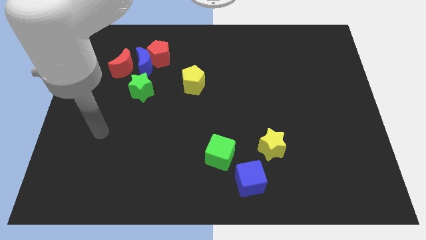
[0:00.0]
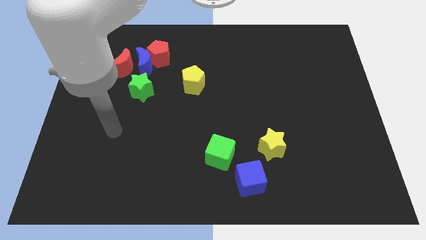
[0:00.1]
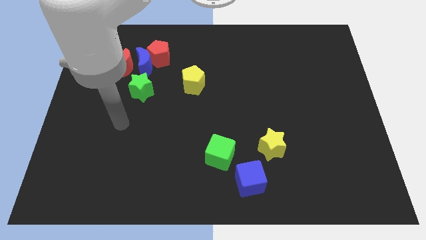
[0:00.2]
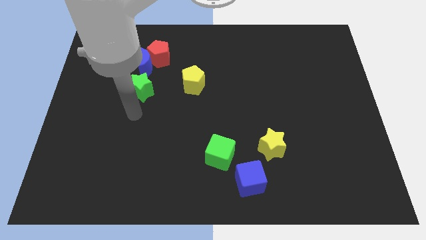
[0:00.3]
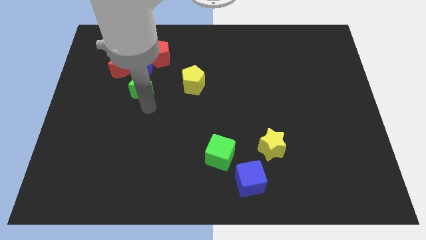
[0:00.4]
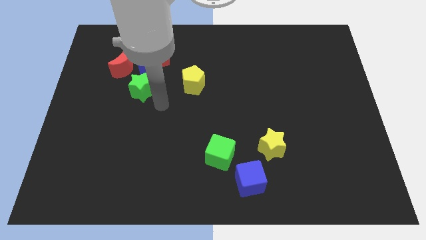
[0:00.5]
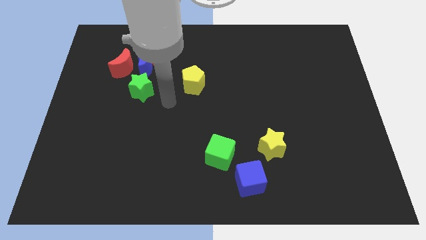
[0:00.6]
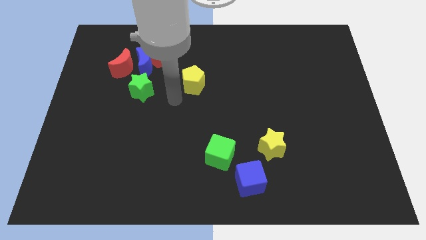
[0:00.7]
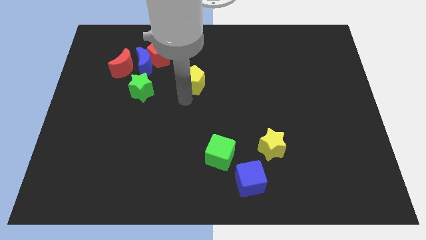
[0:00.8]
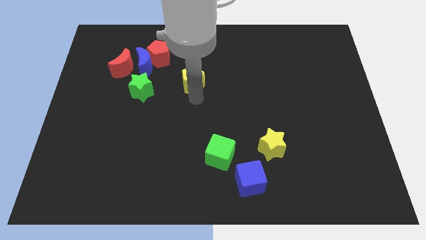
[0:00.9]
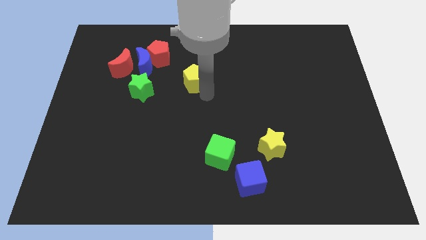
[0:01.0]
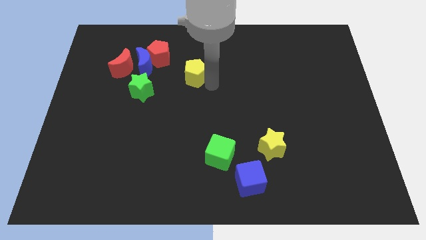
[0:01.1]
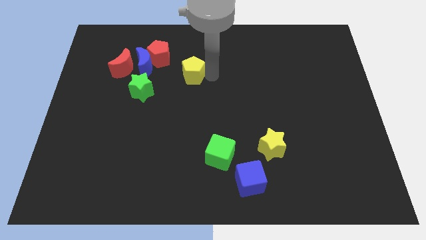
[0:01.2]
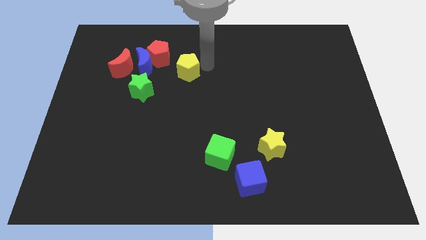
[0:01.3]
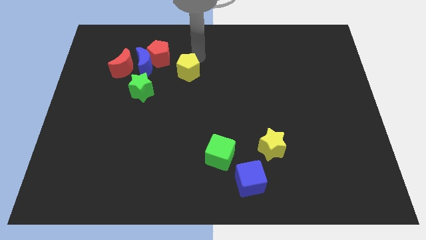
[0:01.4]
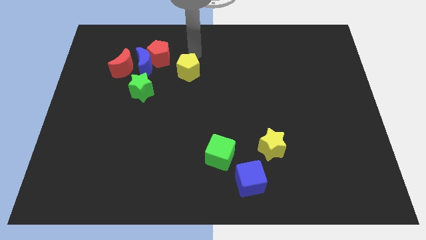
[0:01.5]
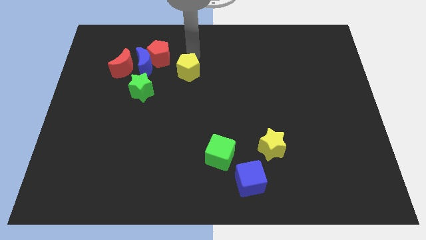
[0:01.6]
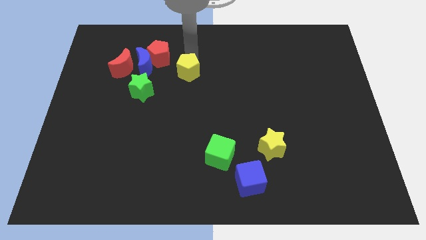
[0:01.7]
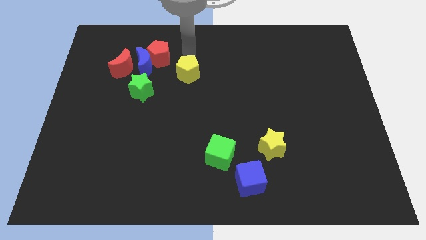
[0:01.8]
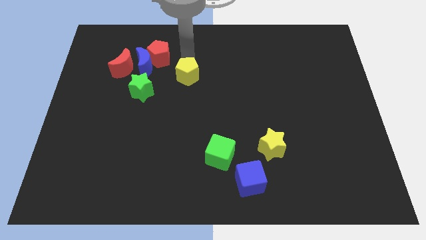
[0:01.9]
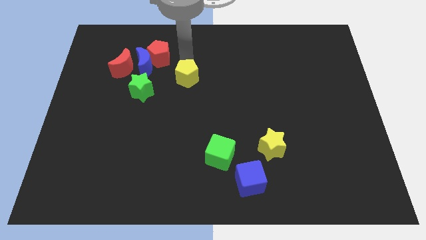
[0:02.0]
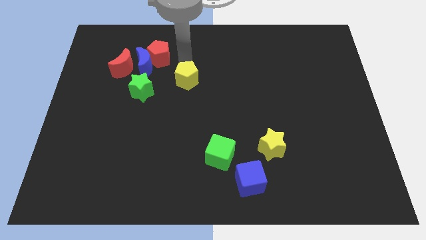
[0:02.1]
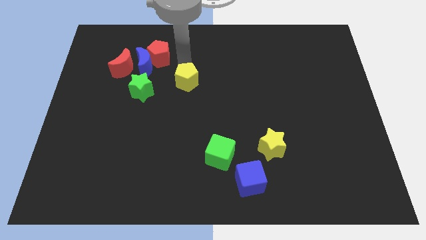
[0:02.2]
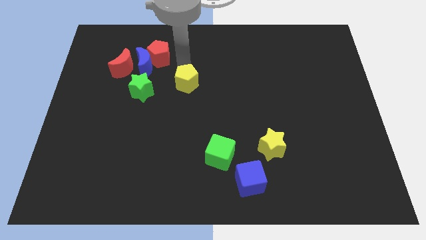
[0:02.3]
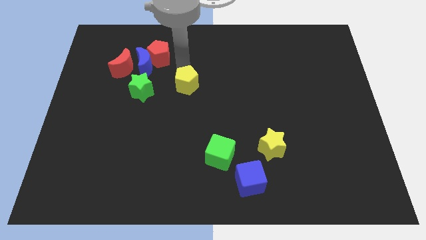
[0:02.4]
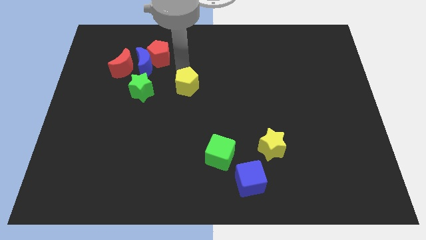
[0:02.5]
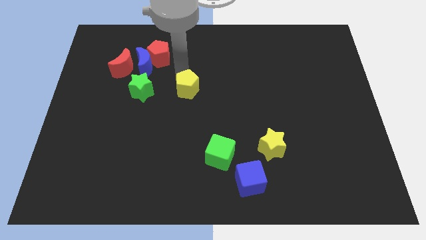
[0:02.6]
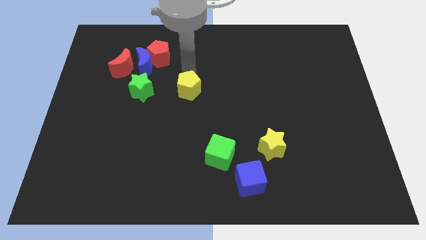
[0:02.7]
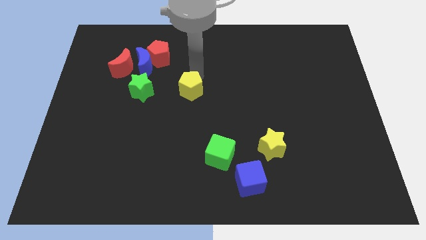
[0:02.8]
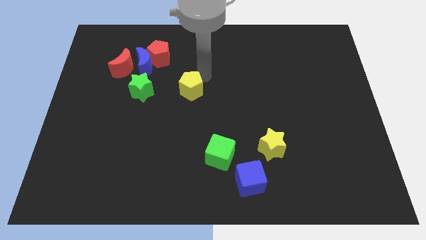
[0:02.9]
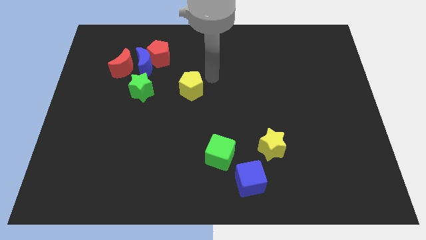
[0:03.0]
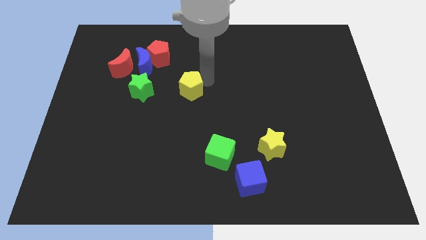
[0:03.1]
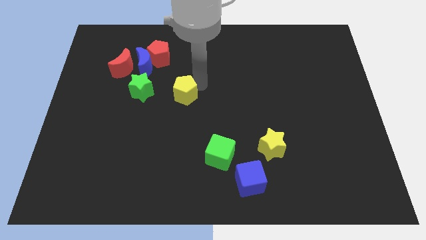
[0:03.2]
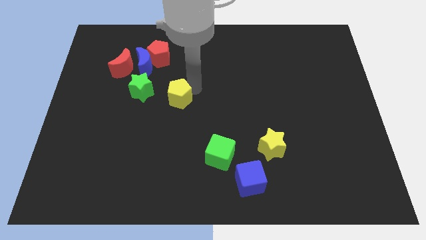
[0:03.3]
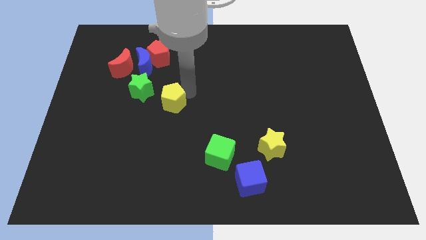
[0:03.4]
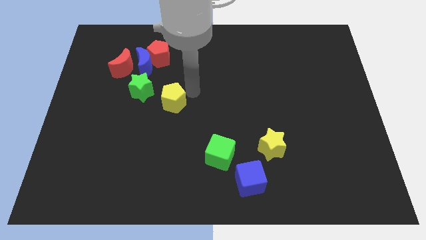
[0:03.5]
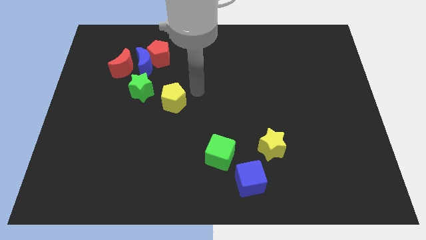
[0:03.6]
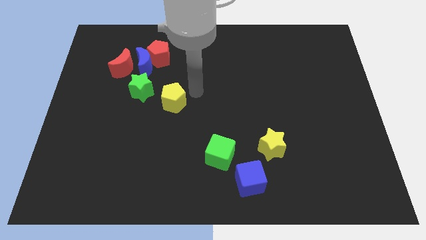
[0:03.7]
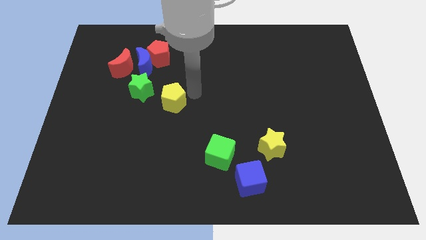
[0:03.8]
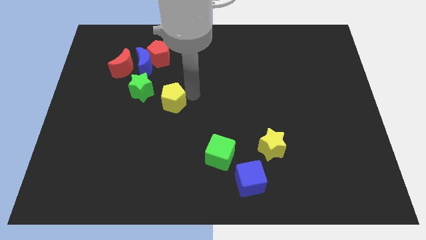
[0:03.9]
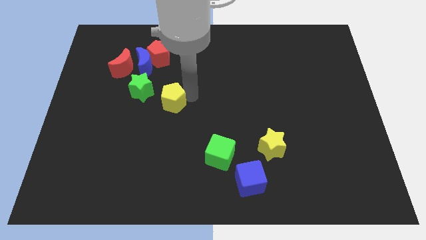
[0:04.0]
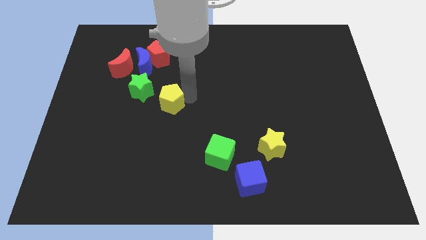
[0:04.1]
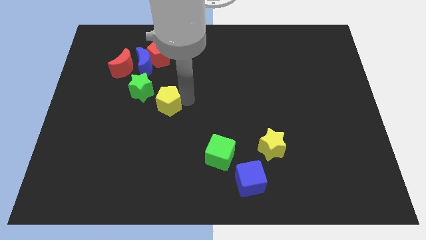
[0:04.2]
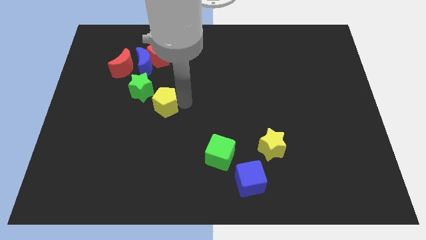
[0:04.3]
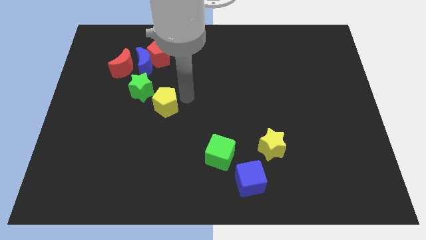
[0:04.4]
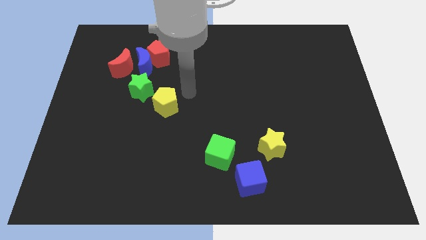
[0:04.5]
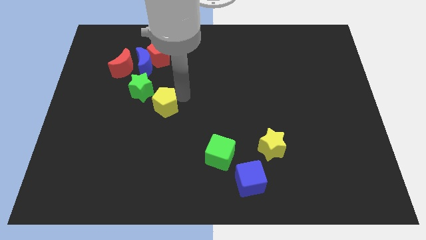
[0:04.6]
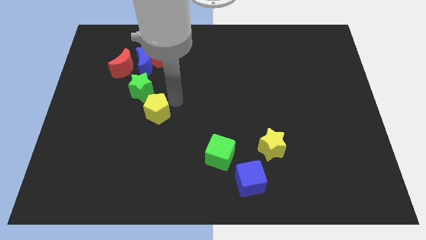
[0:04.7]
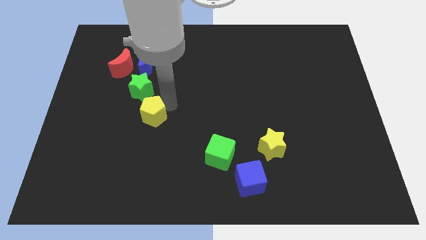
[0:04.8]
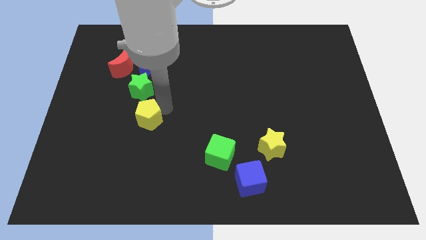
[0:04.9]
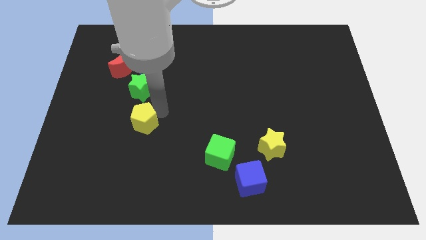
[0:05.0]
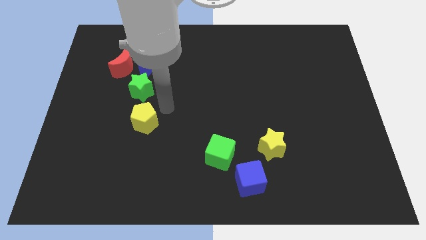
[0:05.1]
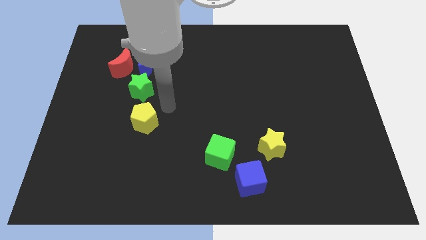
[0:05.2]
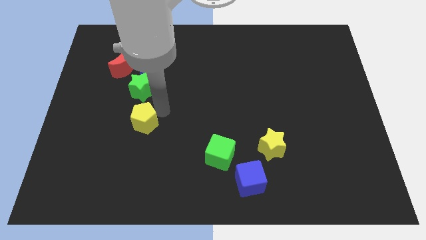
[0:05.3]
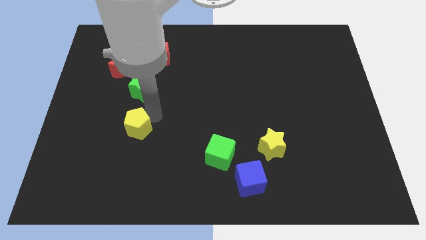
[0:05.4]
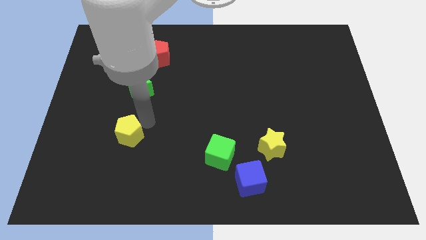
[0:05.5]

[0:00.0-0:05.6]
move the yellow pentagon down and then to the left

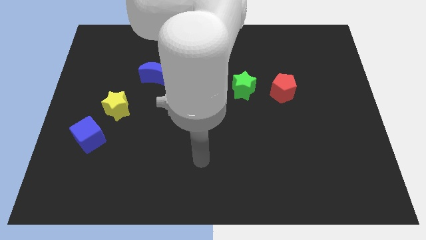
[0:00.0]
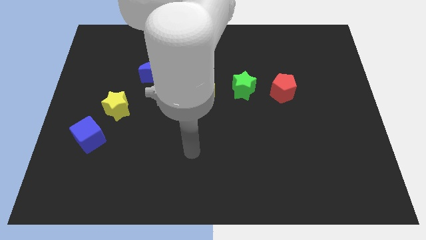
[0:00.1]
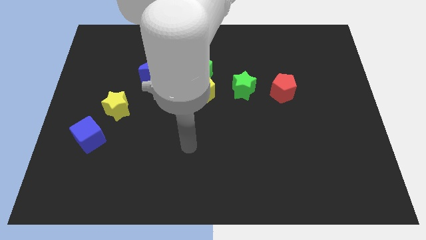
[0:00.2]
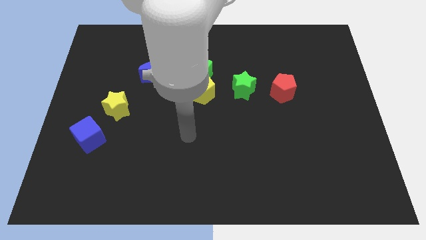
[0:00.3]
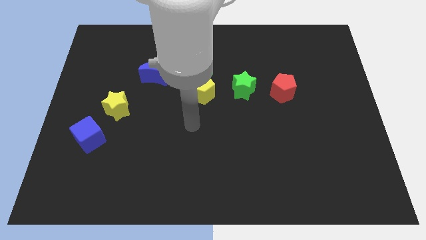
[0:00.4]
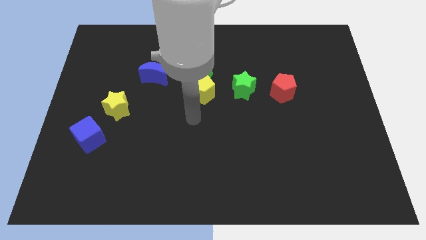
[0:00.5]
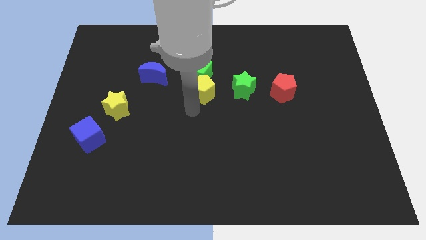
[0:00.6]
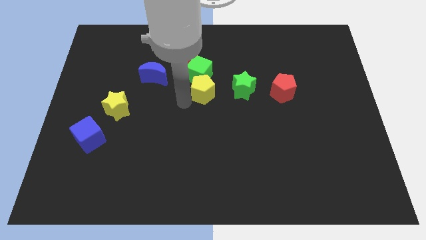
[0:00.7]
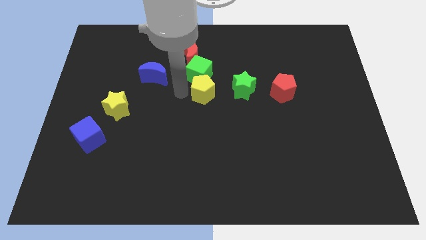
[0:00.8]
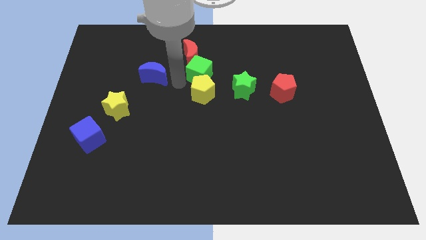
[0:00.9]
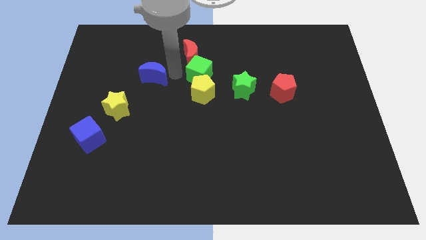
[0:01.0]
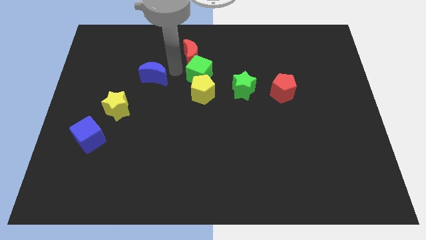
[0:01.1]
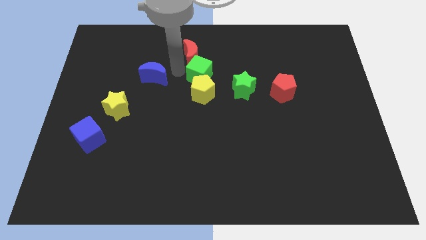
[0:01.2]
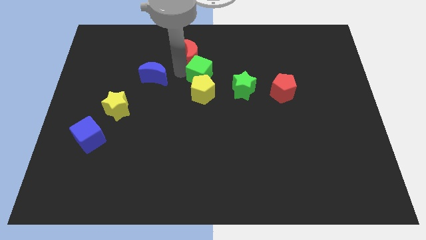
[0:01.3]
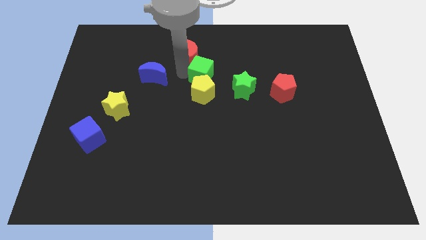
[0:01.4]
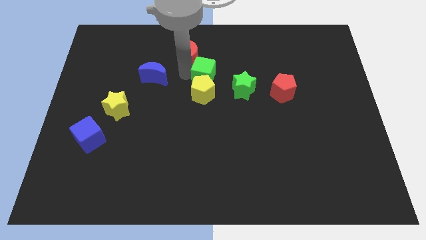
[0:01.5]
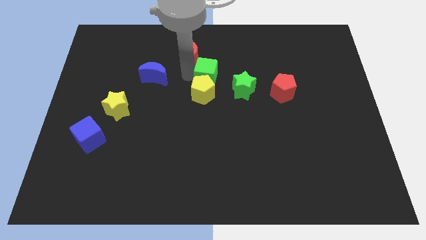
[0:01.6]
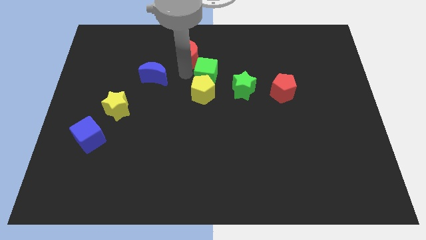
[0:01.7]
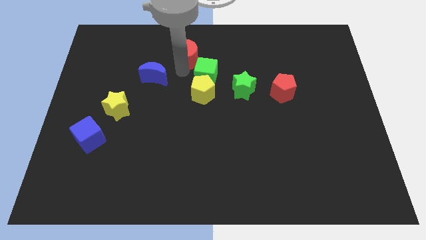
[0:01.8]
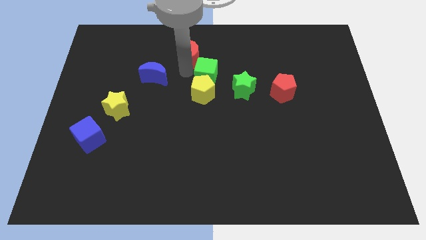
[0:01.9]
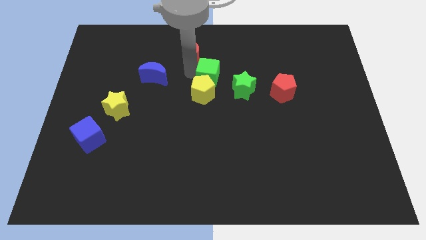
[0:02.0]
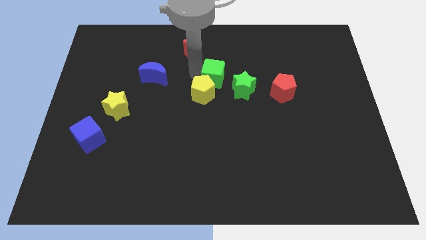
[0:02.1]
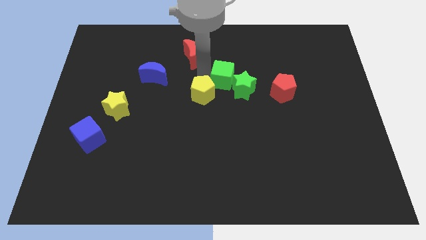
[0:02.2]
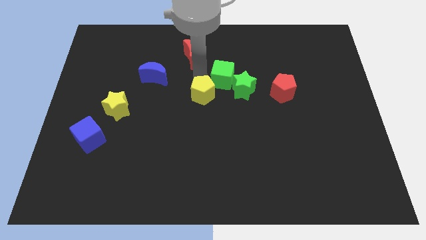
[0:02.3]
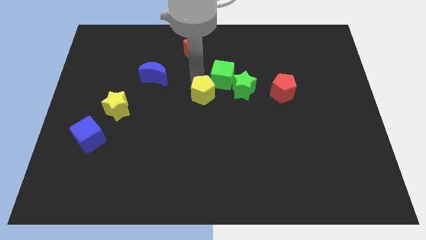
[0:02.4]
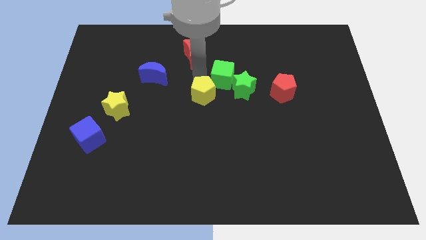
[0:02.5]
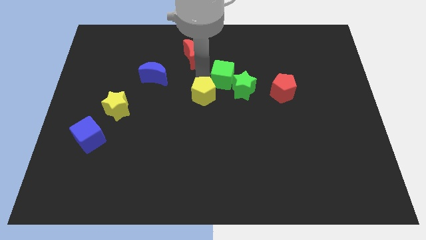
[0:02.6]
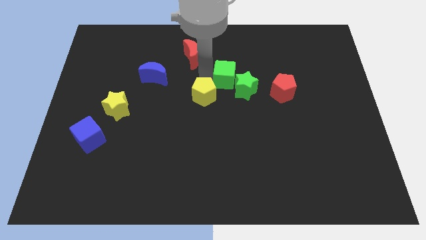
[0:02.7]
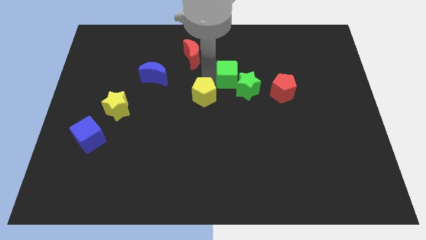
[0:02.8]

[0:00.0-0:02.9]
slightly move the green cube to the right
